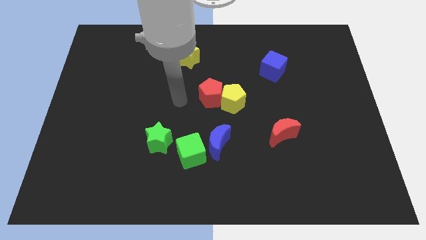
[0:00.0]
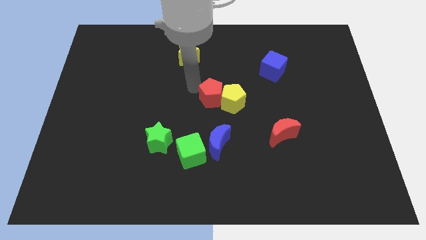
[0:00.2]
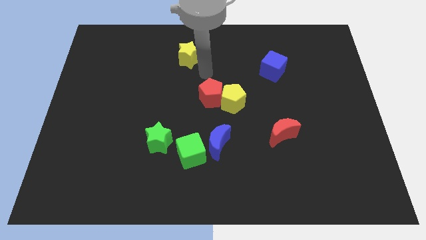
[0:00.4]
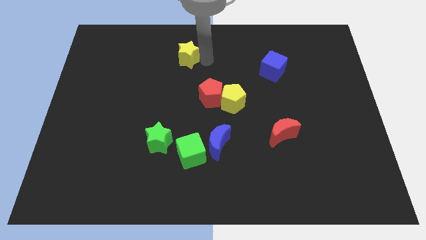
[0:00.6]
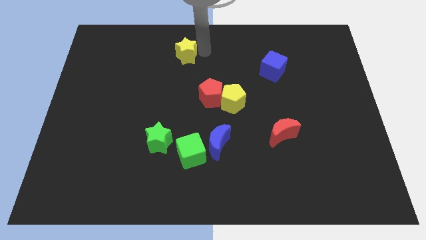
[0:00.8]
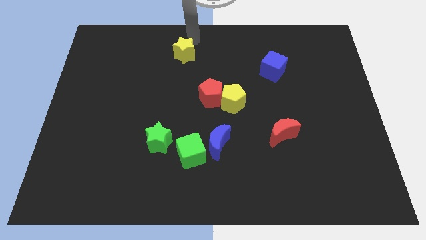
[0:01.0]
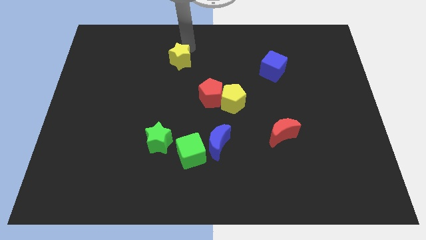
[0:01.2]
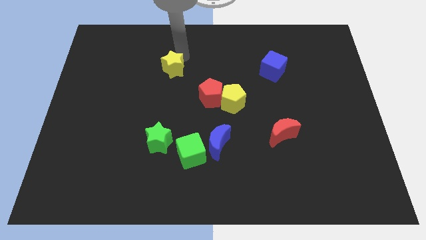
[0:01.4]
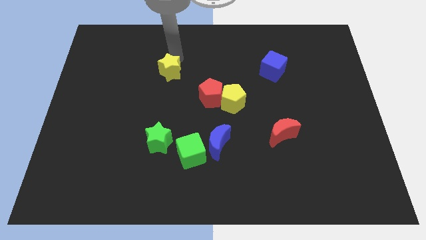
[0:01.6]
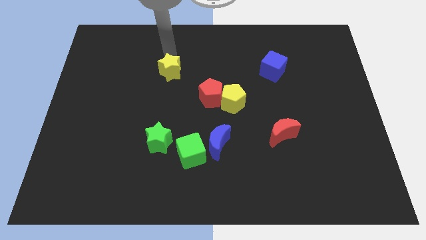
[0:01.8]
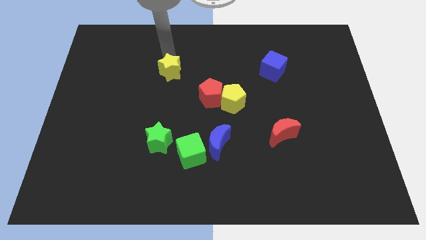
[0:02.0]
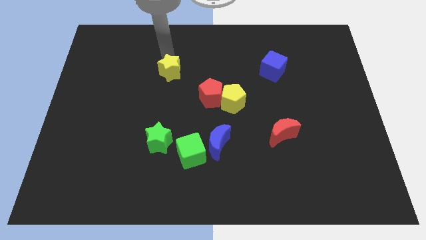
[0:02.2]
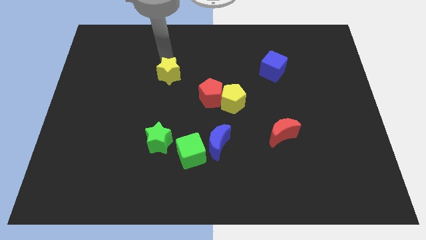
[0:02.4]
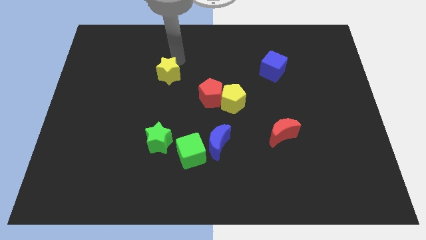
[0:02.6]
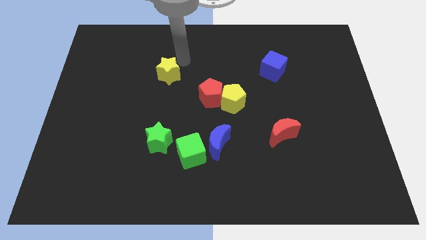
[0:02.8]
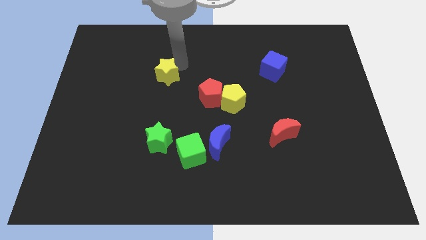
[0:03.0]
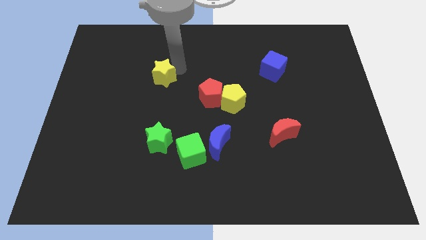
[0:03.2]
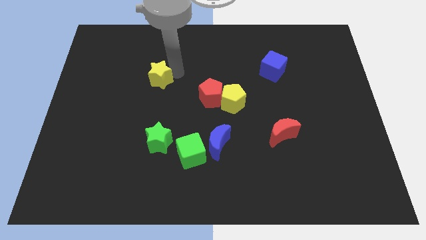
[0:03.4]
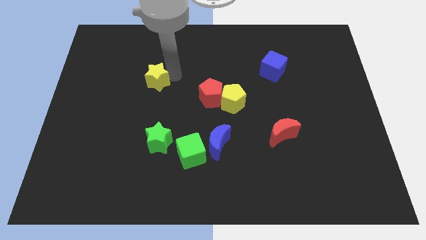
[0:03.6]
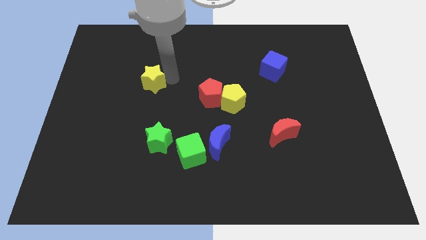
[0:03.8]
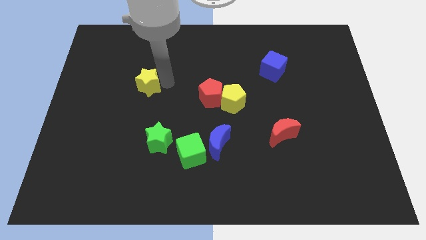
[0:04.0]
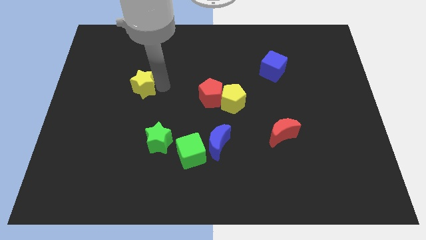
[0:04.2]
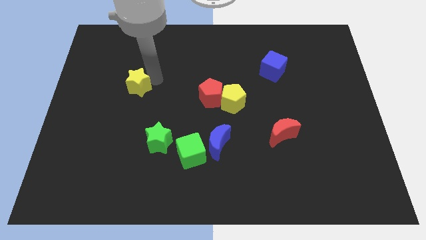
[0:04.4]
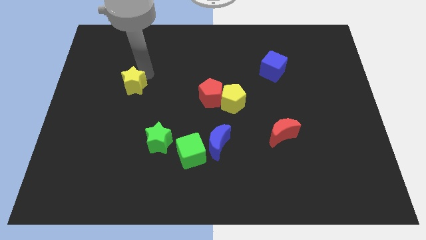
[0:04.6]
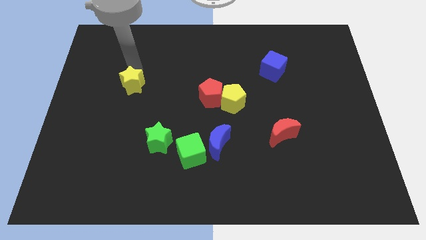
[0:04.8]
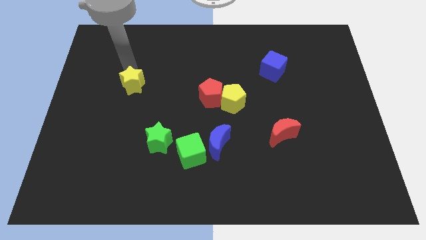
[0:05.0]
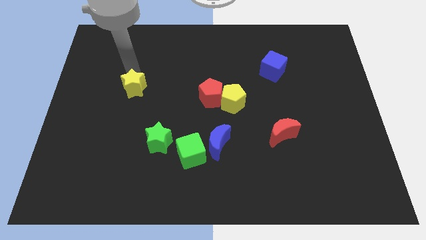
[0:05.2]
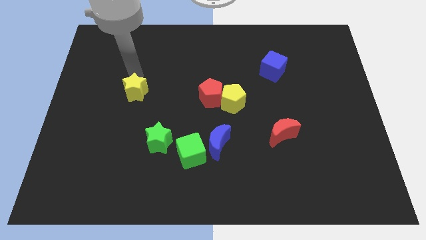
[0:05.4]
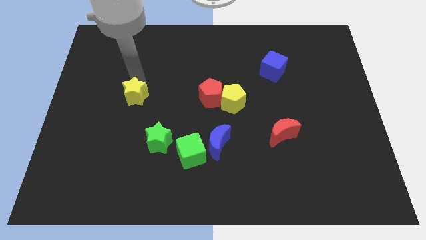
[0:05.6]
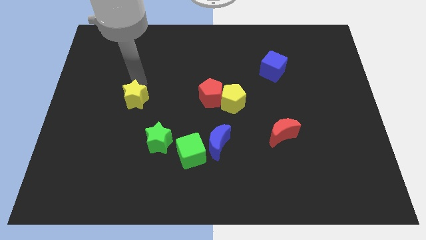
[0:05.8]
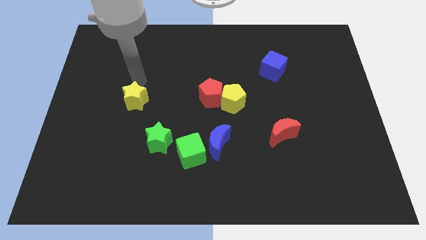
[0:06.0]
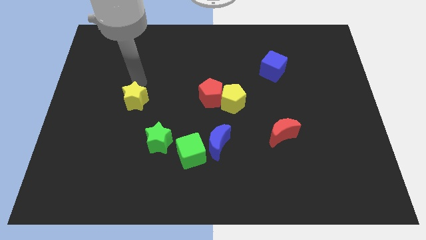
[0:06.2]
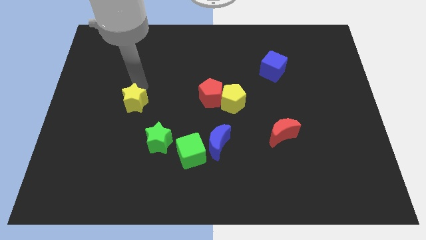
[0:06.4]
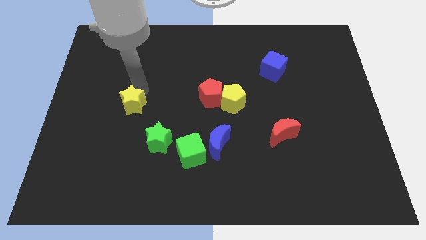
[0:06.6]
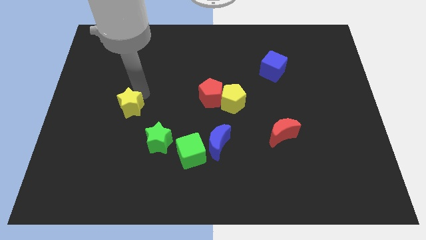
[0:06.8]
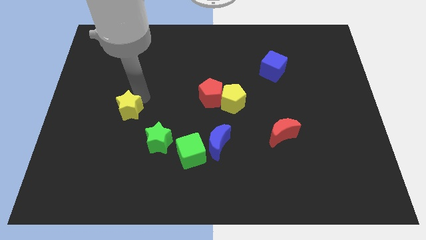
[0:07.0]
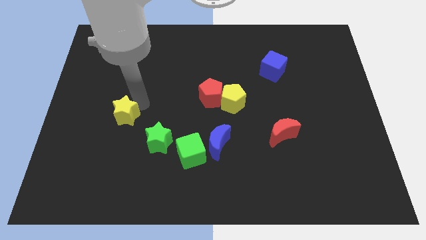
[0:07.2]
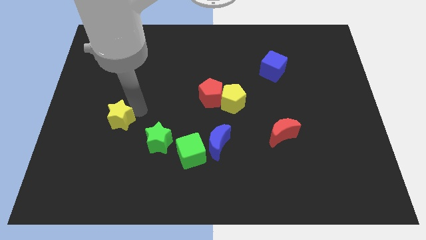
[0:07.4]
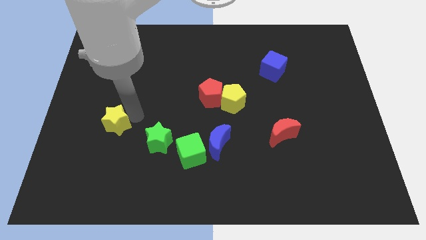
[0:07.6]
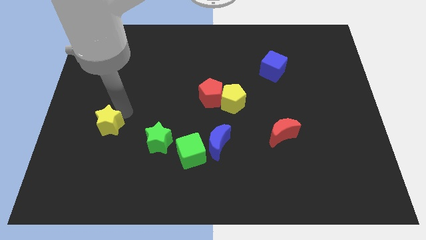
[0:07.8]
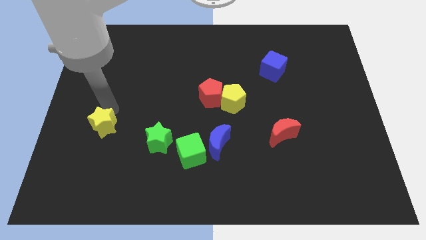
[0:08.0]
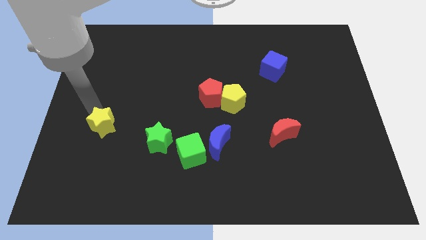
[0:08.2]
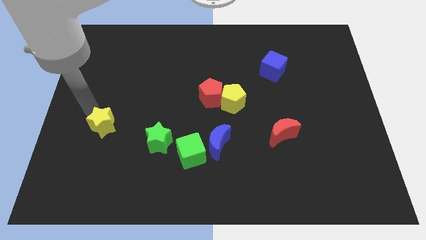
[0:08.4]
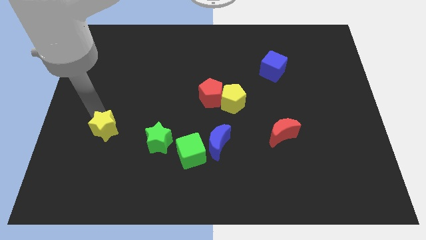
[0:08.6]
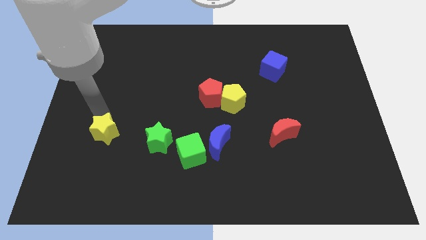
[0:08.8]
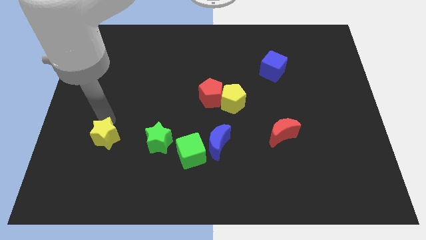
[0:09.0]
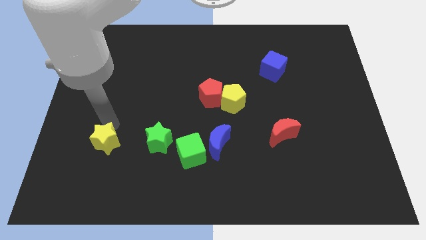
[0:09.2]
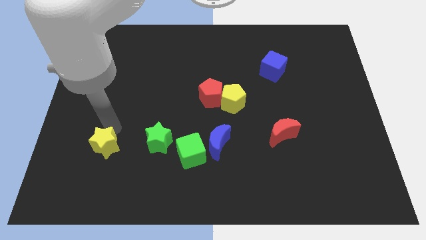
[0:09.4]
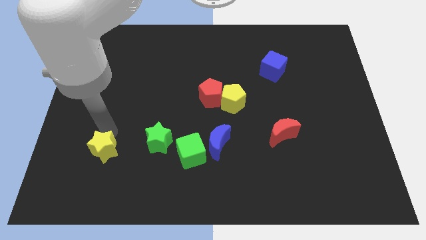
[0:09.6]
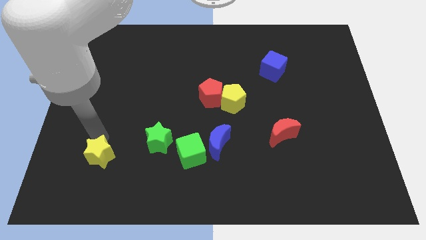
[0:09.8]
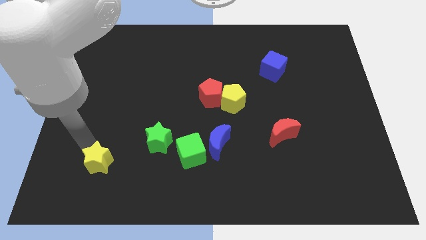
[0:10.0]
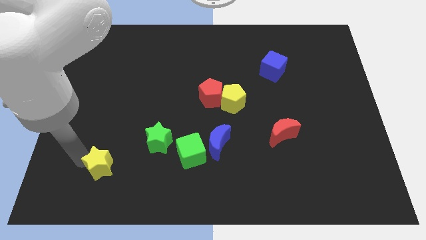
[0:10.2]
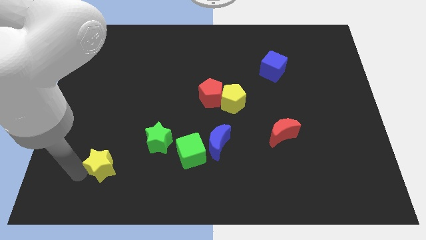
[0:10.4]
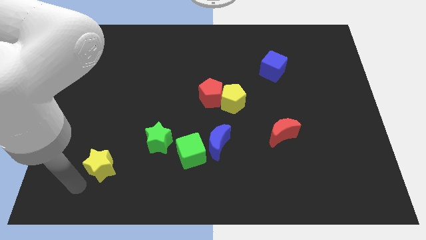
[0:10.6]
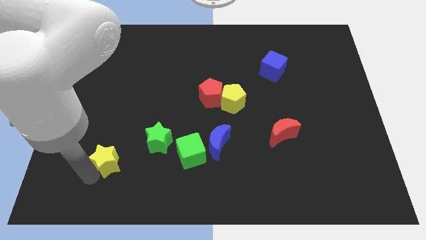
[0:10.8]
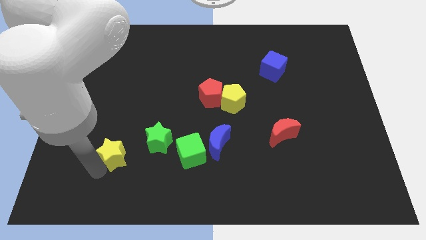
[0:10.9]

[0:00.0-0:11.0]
push the yellow star to the left side of the green cube

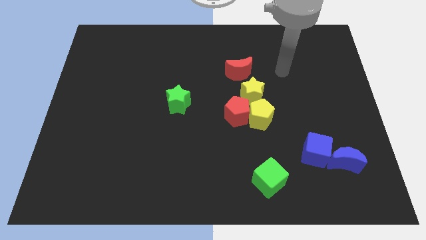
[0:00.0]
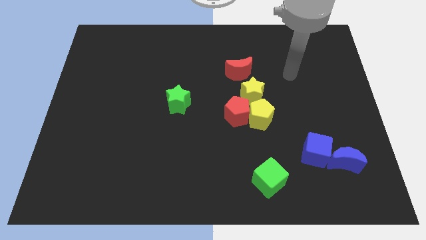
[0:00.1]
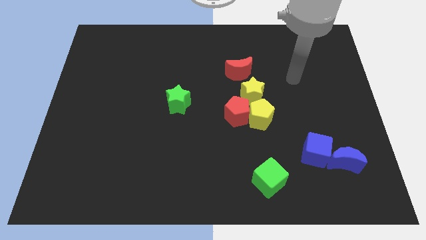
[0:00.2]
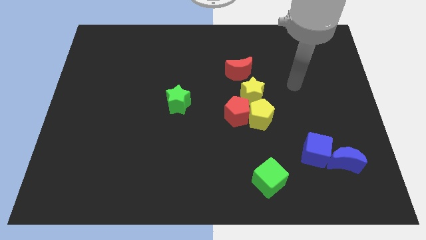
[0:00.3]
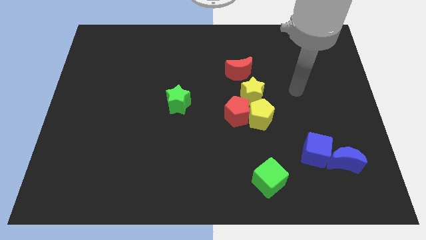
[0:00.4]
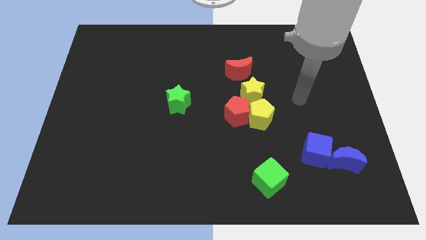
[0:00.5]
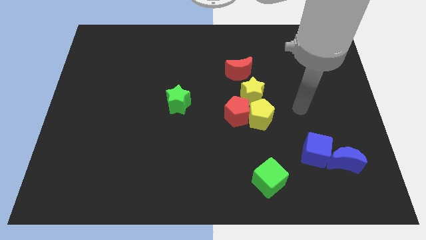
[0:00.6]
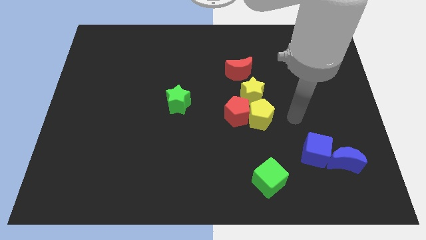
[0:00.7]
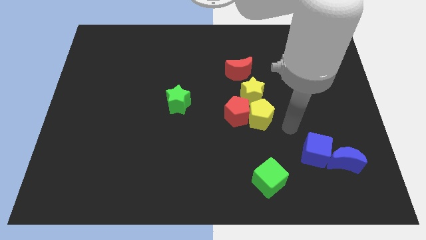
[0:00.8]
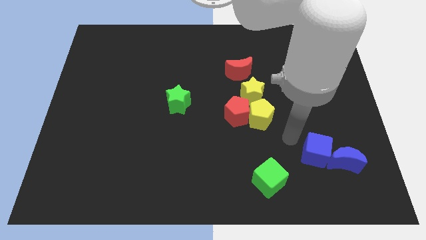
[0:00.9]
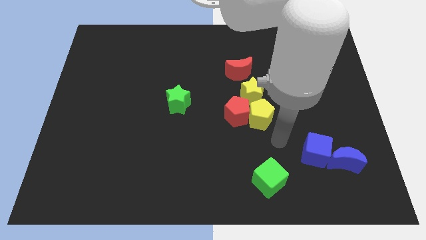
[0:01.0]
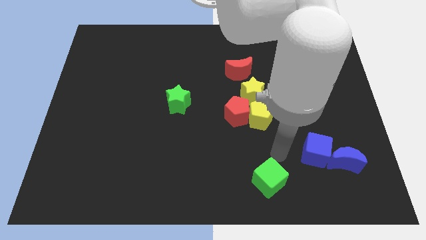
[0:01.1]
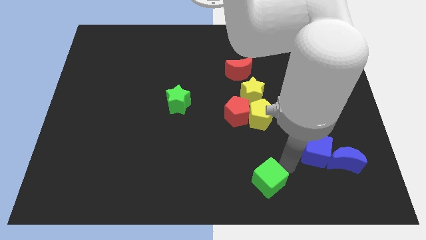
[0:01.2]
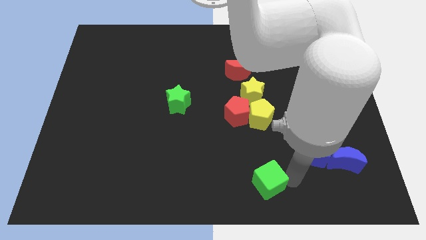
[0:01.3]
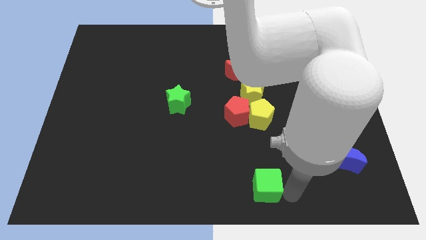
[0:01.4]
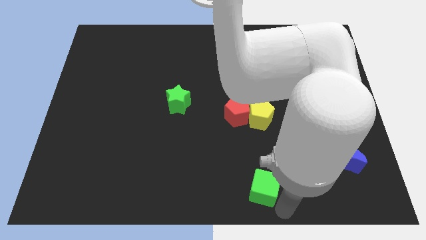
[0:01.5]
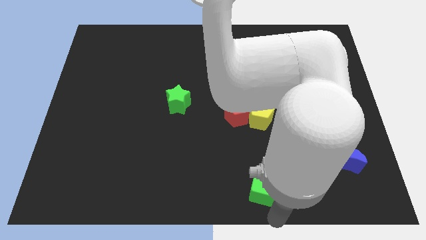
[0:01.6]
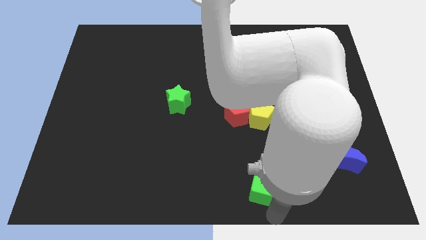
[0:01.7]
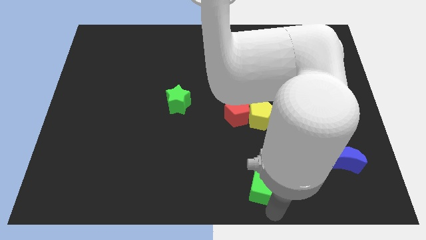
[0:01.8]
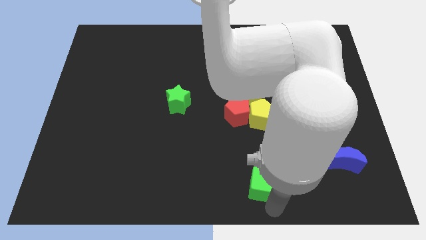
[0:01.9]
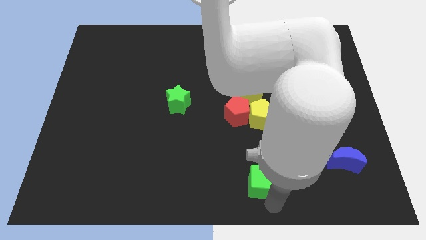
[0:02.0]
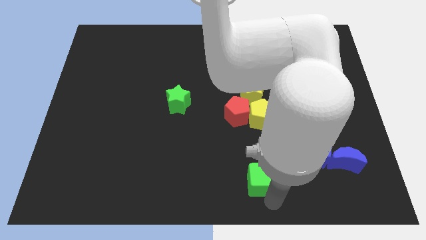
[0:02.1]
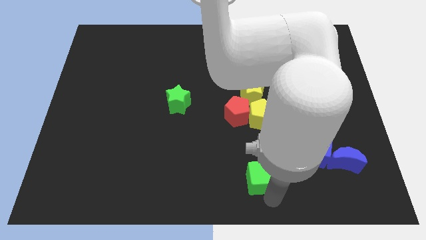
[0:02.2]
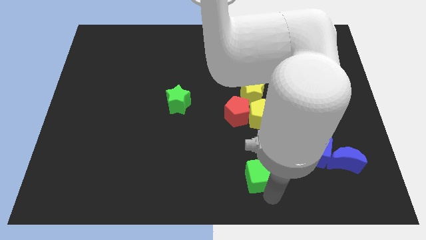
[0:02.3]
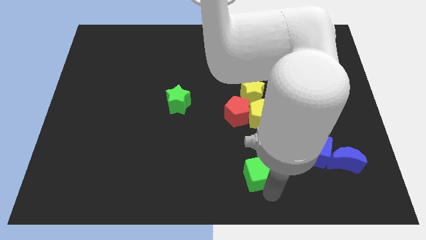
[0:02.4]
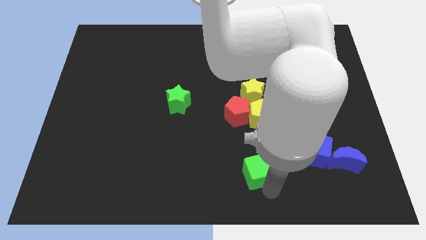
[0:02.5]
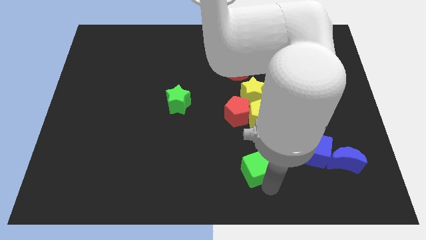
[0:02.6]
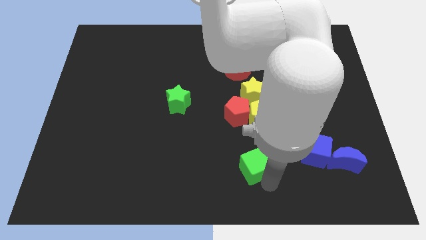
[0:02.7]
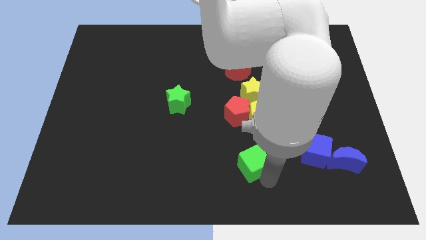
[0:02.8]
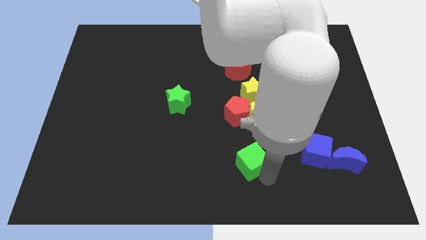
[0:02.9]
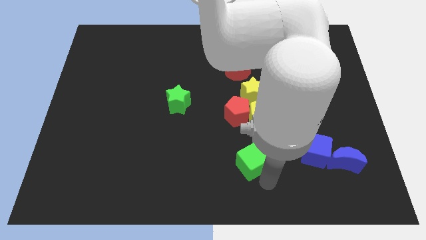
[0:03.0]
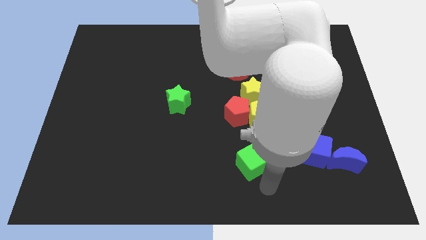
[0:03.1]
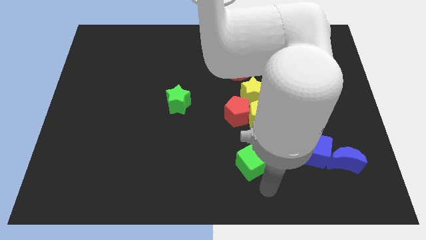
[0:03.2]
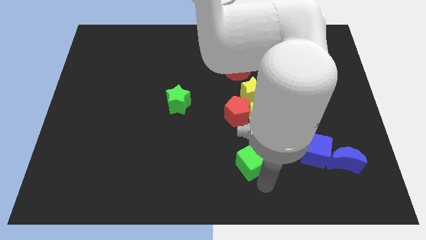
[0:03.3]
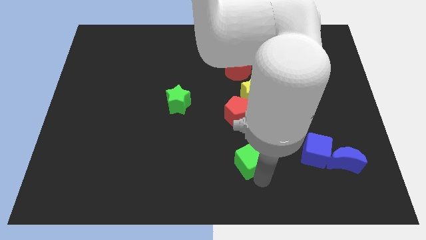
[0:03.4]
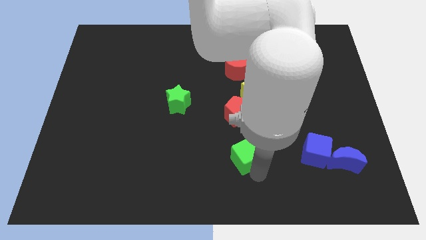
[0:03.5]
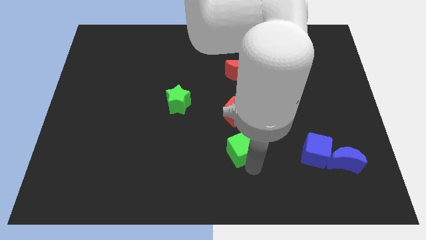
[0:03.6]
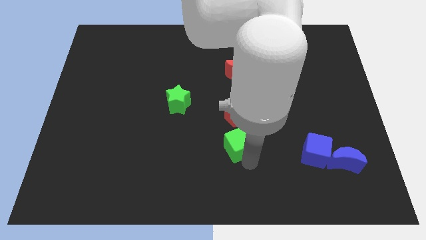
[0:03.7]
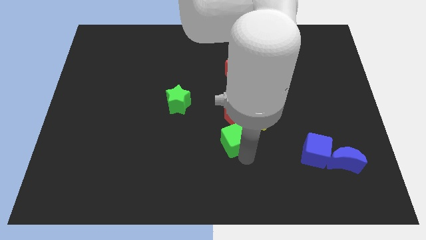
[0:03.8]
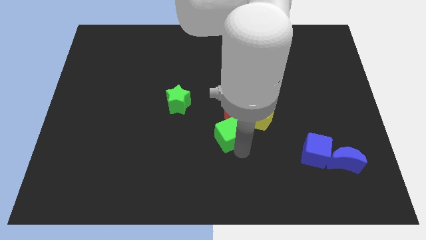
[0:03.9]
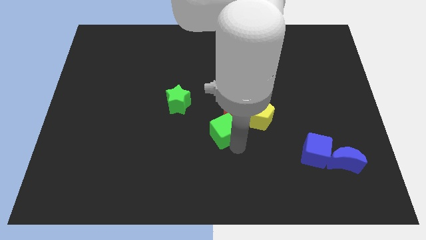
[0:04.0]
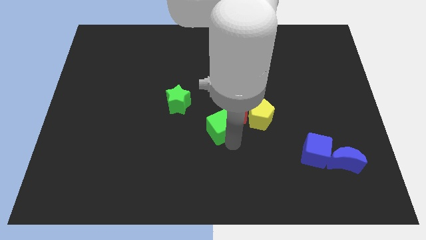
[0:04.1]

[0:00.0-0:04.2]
push the green cube to the bottom left side of the yellow star
